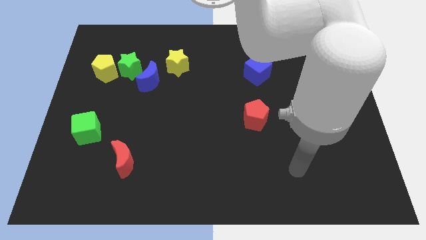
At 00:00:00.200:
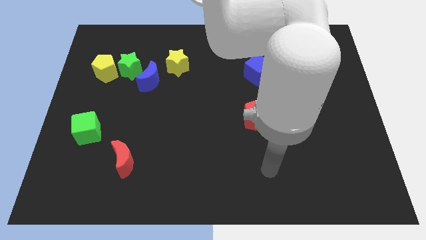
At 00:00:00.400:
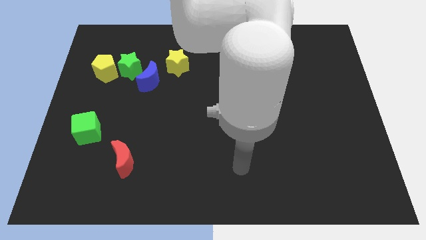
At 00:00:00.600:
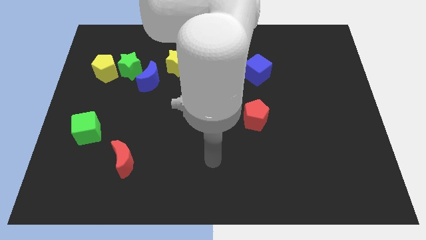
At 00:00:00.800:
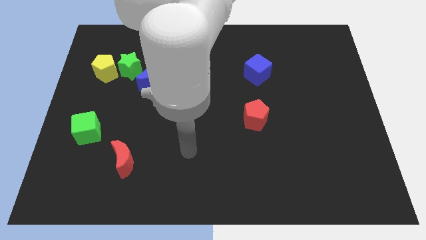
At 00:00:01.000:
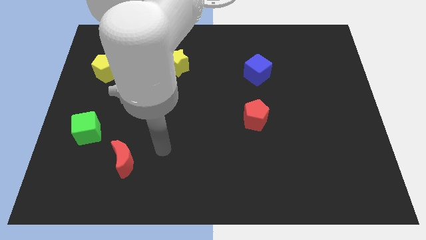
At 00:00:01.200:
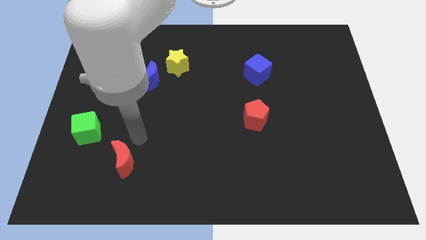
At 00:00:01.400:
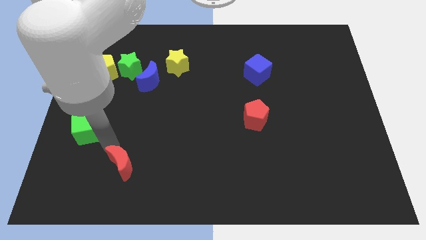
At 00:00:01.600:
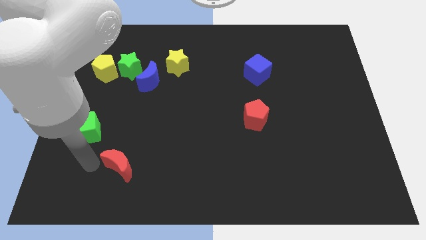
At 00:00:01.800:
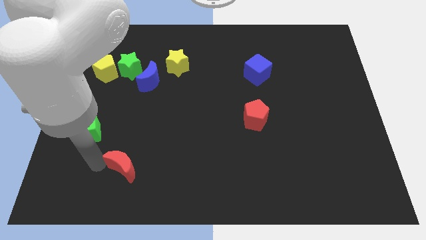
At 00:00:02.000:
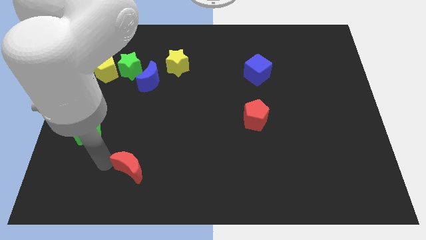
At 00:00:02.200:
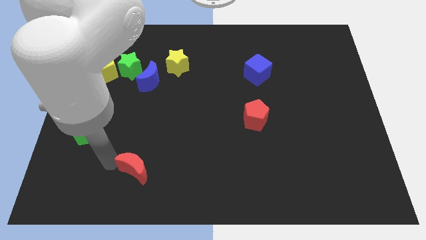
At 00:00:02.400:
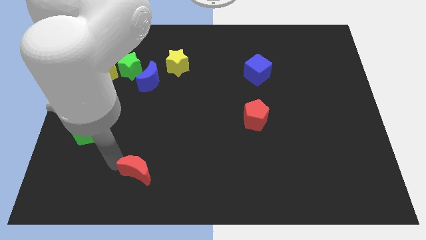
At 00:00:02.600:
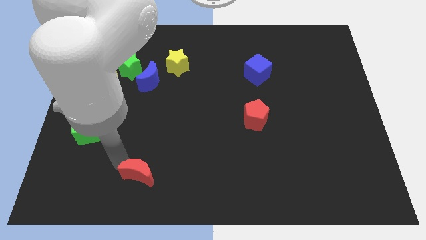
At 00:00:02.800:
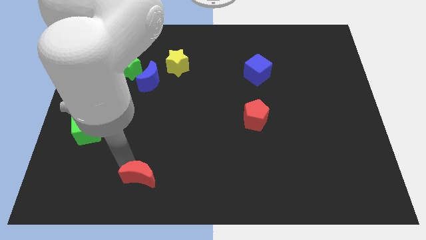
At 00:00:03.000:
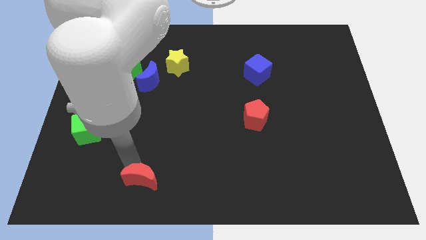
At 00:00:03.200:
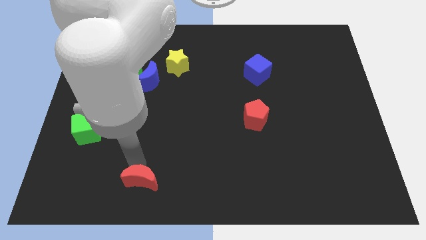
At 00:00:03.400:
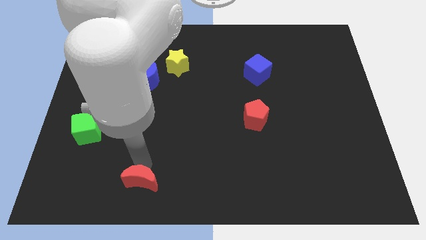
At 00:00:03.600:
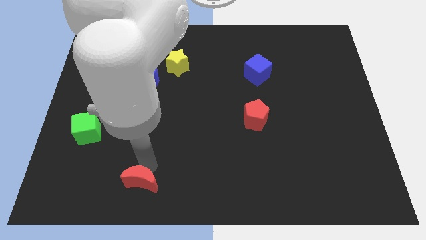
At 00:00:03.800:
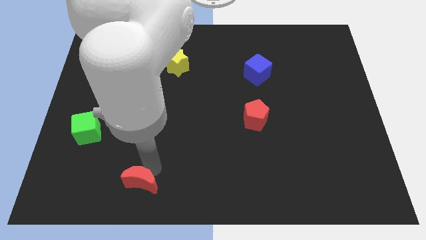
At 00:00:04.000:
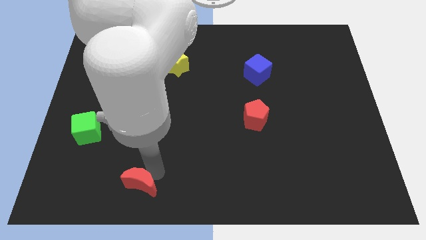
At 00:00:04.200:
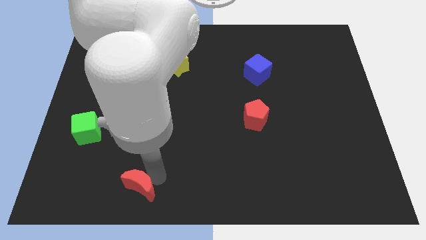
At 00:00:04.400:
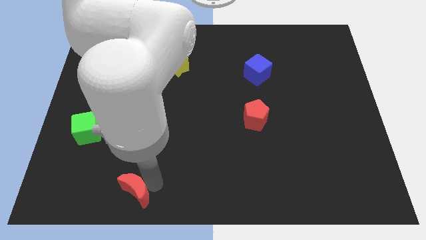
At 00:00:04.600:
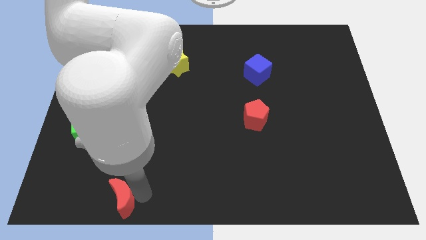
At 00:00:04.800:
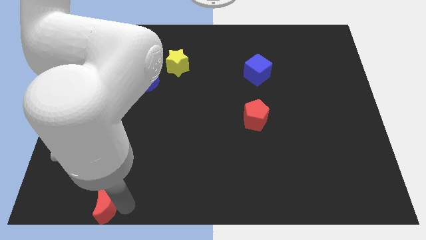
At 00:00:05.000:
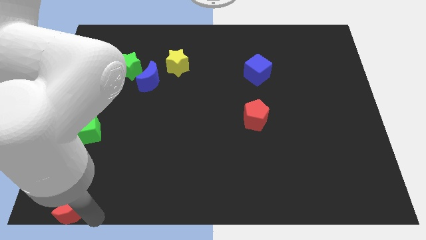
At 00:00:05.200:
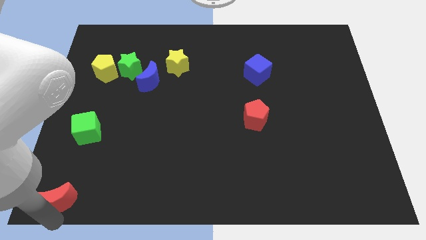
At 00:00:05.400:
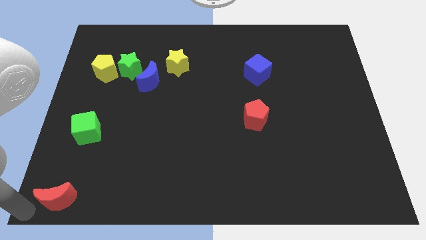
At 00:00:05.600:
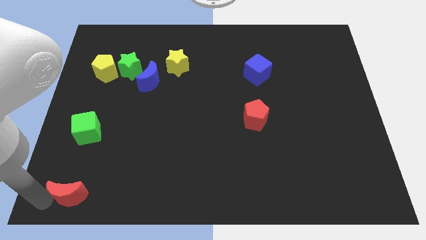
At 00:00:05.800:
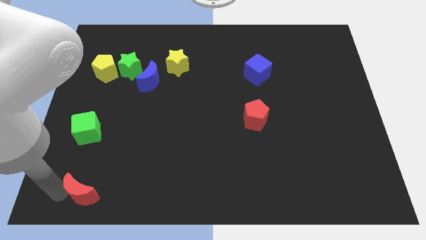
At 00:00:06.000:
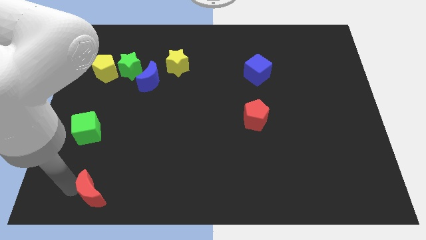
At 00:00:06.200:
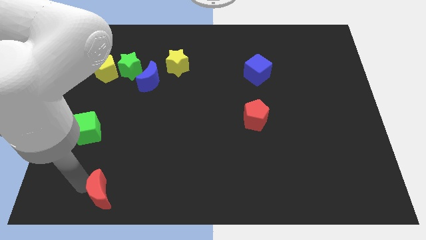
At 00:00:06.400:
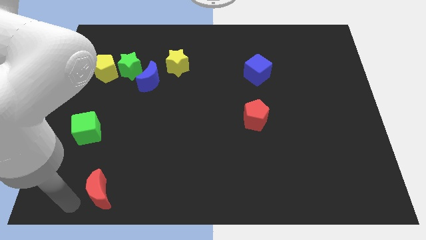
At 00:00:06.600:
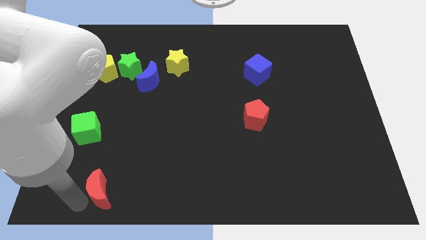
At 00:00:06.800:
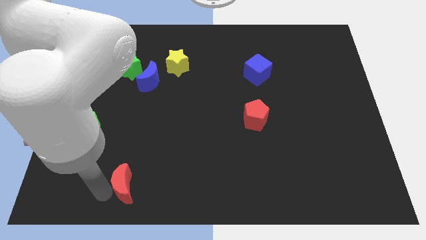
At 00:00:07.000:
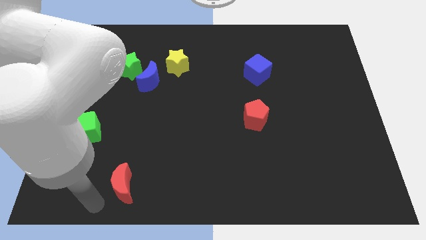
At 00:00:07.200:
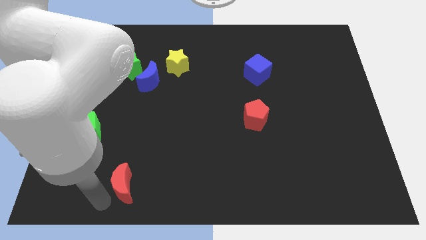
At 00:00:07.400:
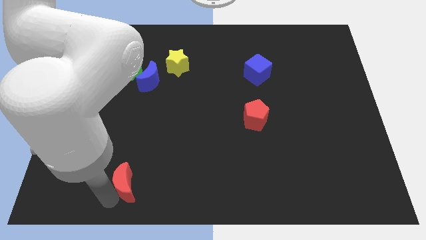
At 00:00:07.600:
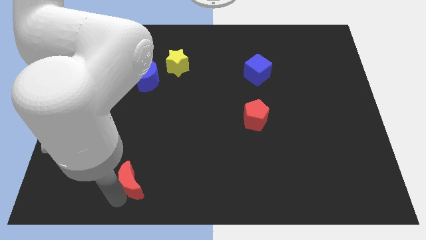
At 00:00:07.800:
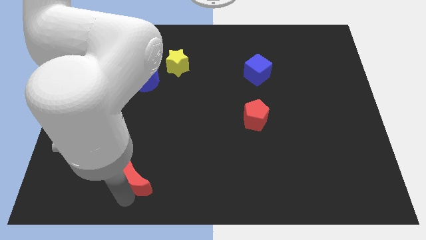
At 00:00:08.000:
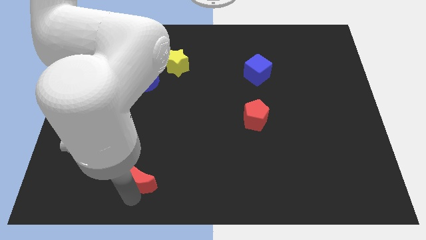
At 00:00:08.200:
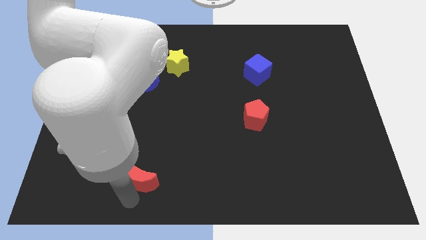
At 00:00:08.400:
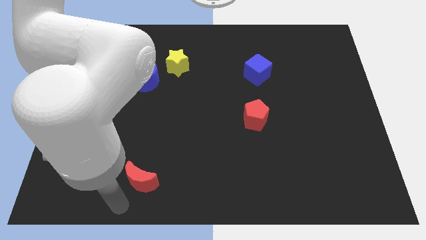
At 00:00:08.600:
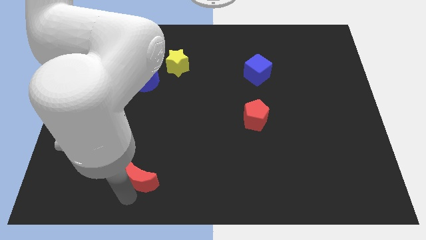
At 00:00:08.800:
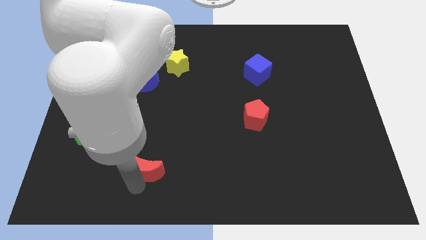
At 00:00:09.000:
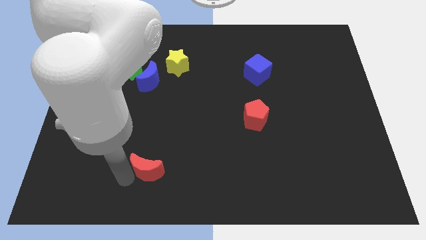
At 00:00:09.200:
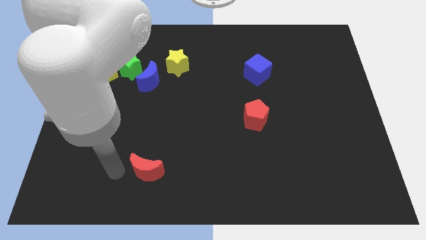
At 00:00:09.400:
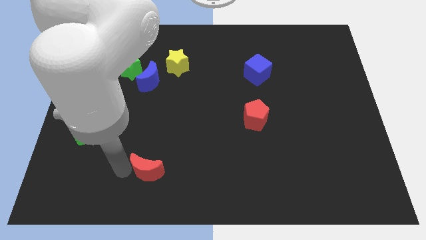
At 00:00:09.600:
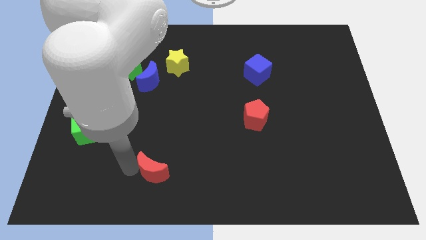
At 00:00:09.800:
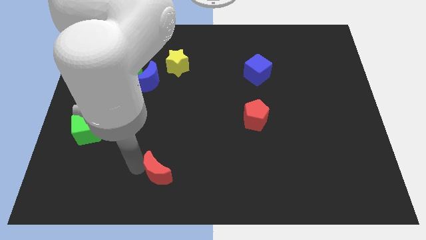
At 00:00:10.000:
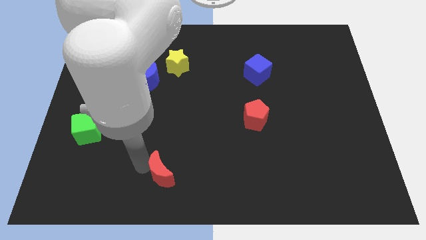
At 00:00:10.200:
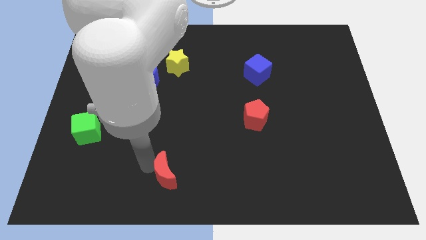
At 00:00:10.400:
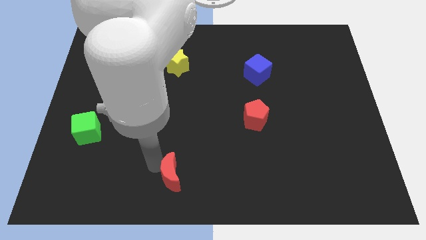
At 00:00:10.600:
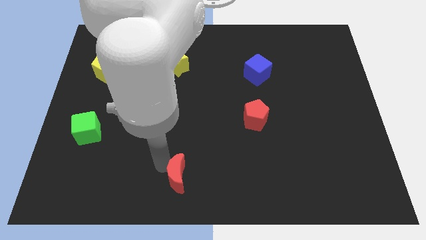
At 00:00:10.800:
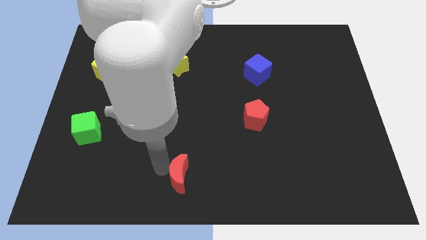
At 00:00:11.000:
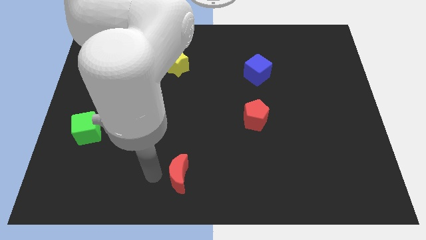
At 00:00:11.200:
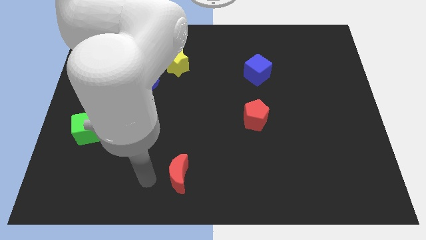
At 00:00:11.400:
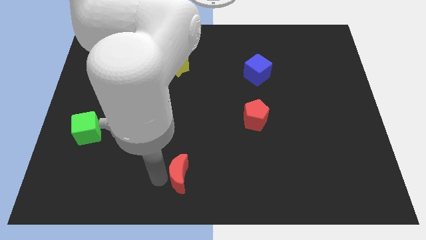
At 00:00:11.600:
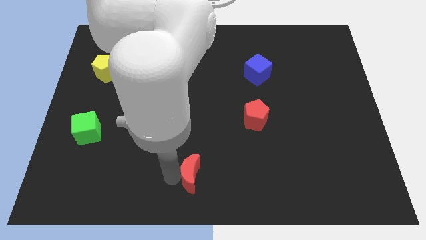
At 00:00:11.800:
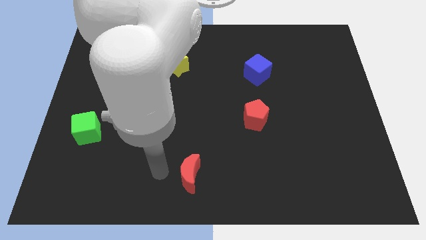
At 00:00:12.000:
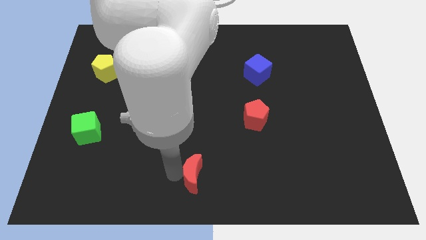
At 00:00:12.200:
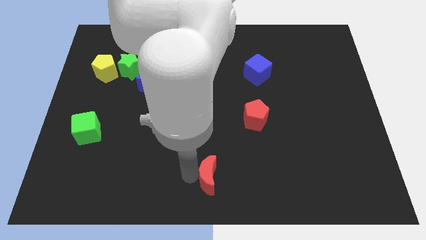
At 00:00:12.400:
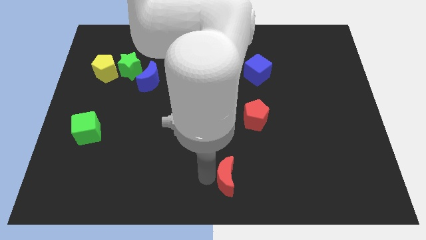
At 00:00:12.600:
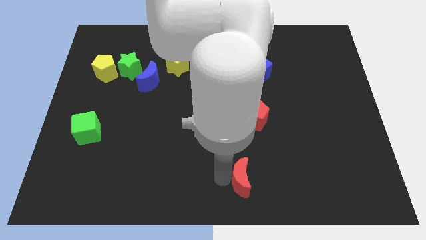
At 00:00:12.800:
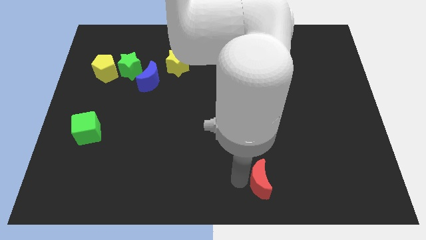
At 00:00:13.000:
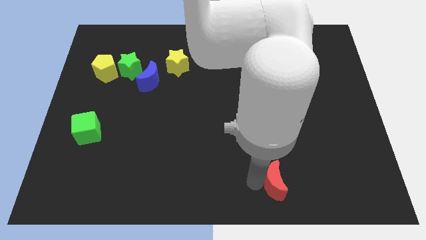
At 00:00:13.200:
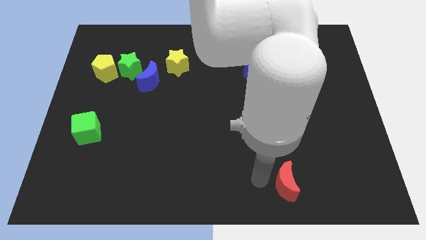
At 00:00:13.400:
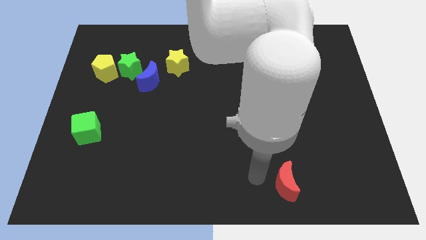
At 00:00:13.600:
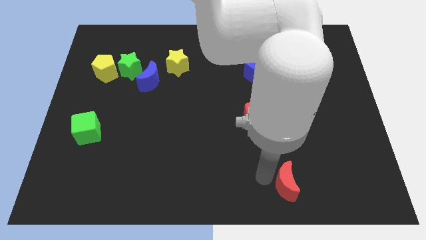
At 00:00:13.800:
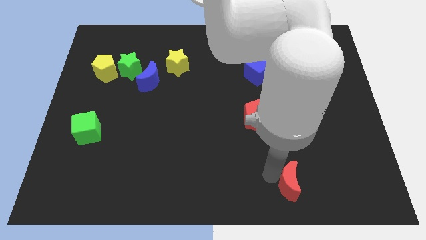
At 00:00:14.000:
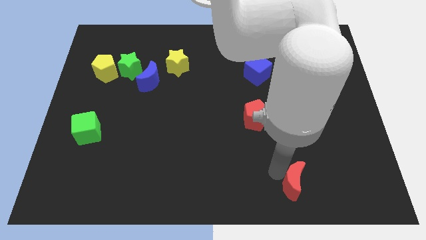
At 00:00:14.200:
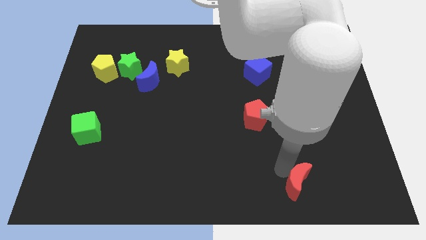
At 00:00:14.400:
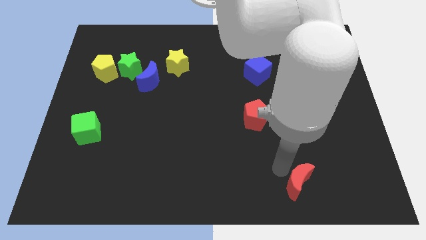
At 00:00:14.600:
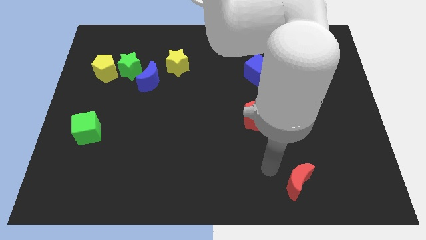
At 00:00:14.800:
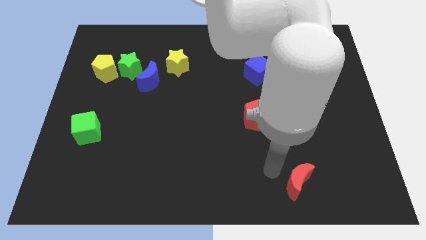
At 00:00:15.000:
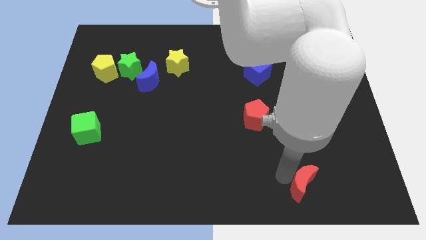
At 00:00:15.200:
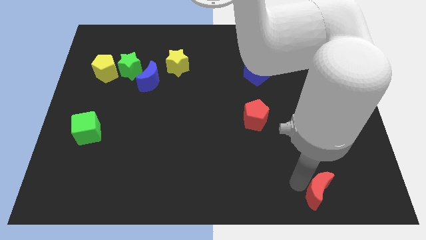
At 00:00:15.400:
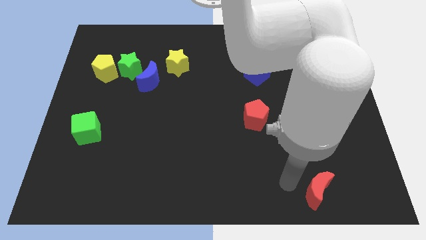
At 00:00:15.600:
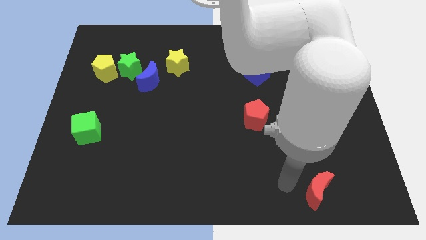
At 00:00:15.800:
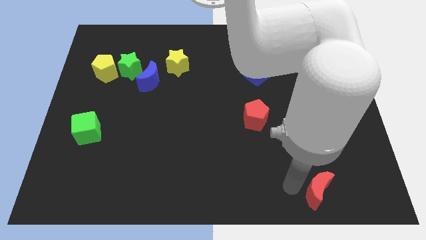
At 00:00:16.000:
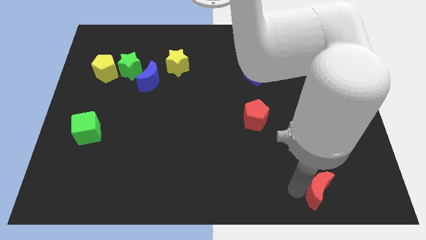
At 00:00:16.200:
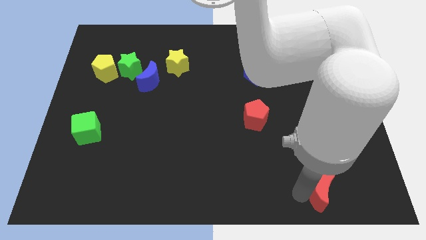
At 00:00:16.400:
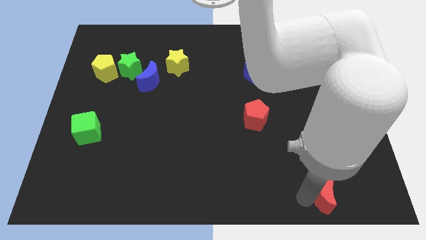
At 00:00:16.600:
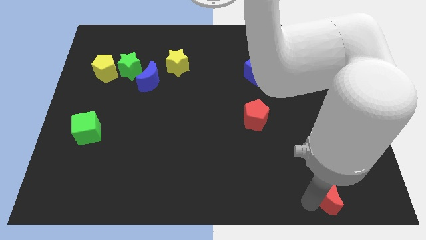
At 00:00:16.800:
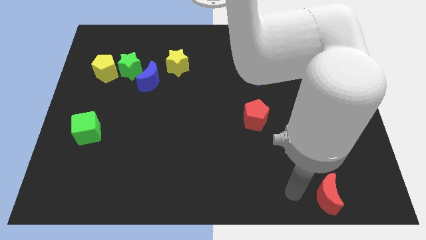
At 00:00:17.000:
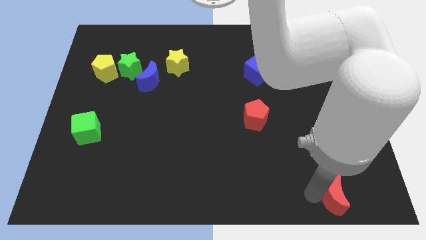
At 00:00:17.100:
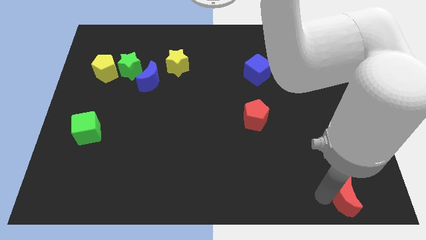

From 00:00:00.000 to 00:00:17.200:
push the red moon to the lower right corner
